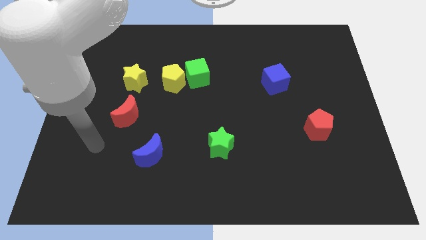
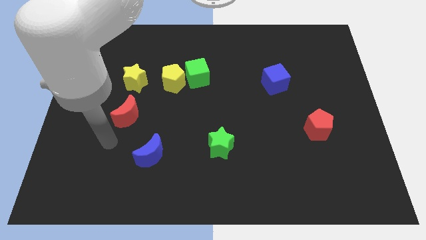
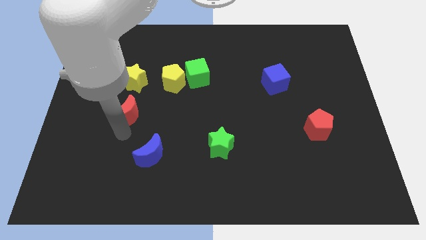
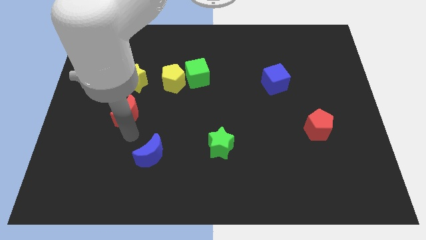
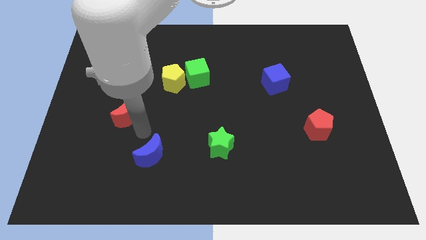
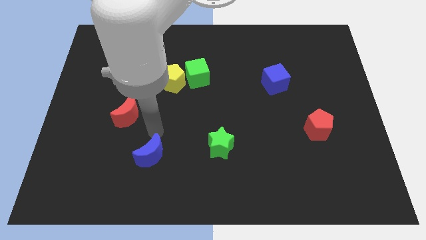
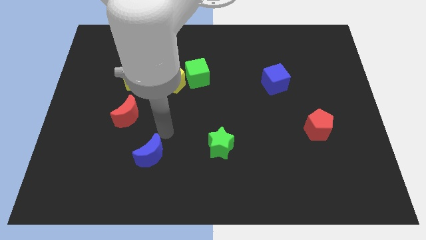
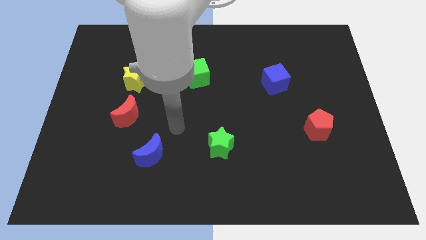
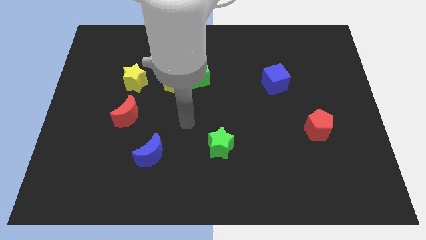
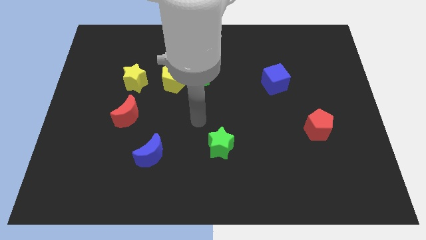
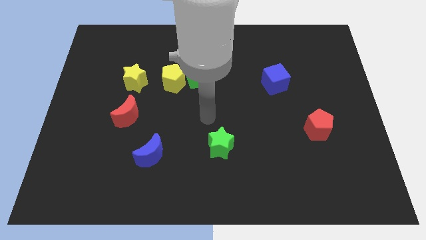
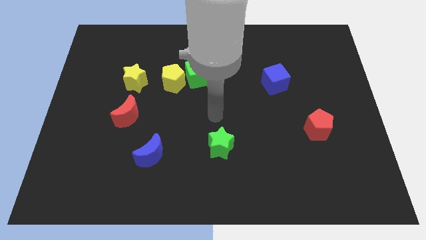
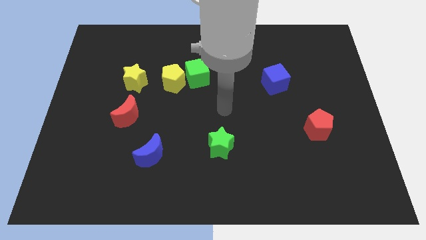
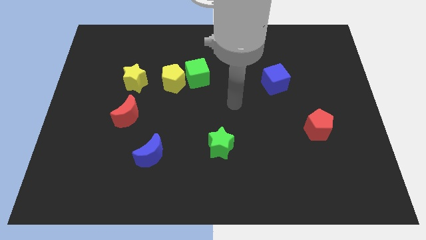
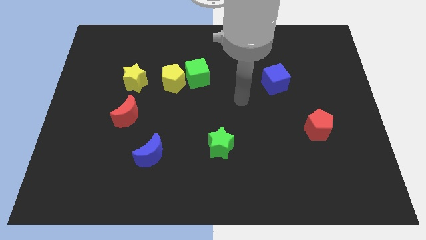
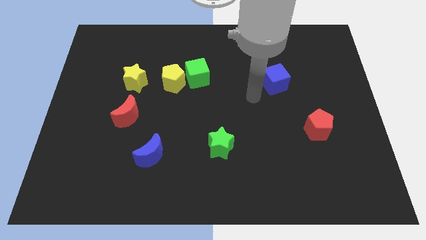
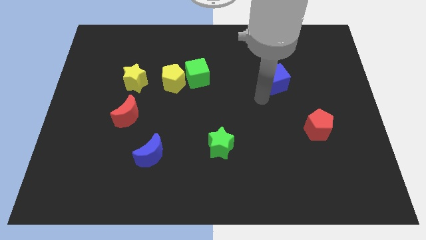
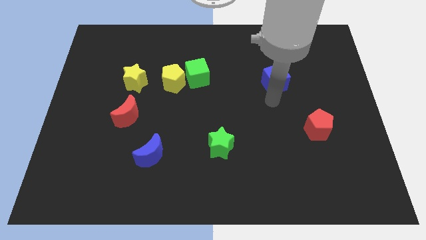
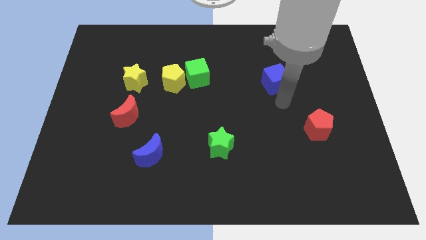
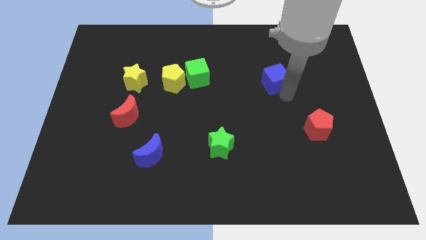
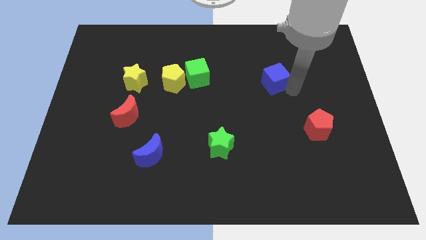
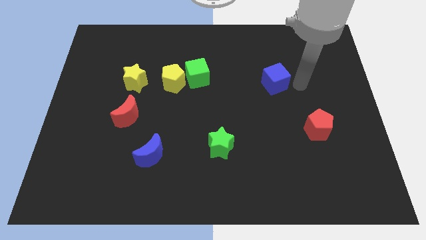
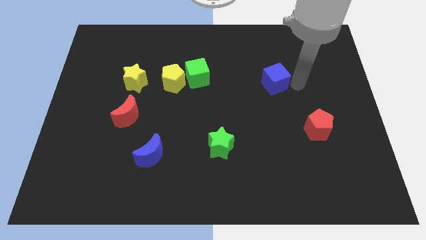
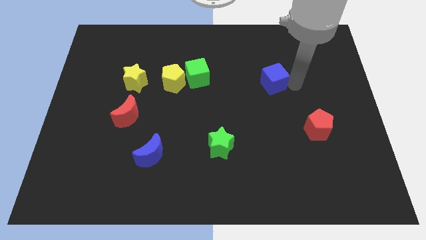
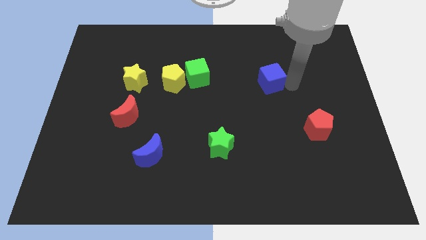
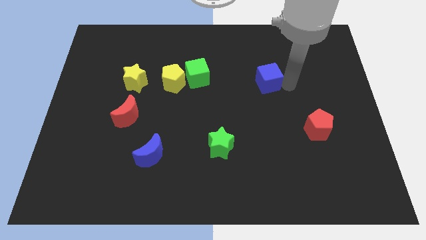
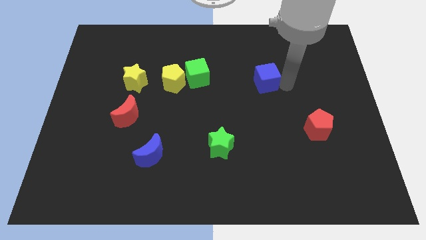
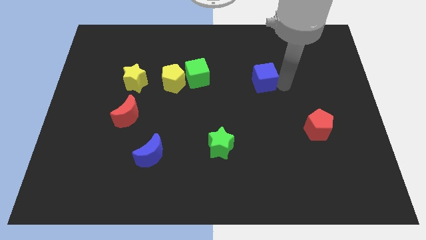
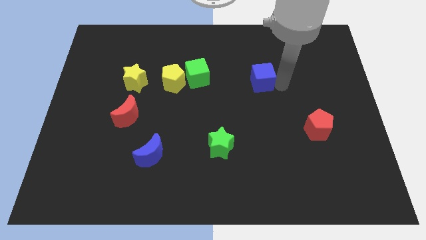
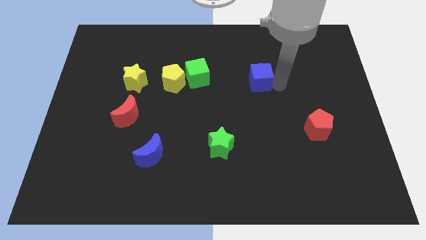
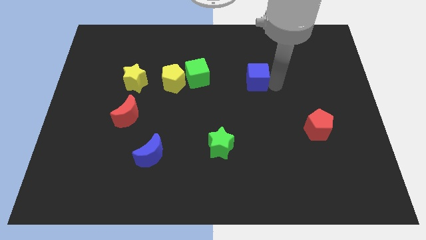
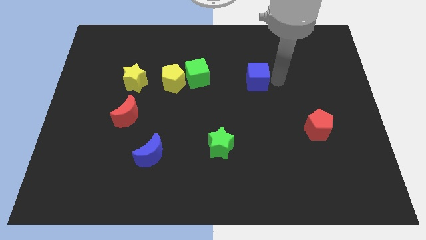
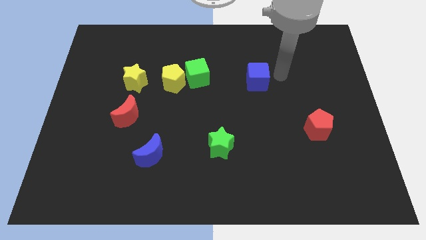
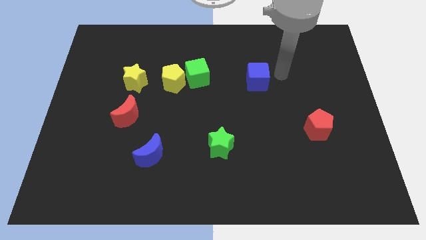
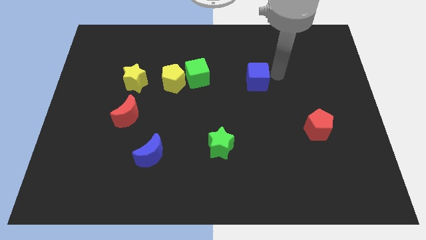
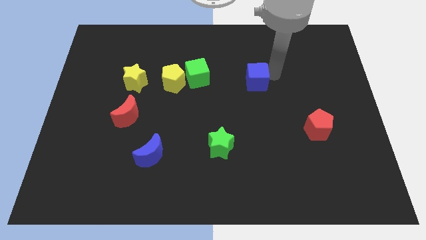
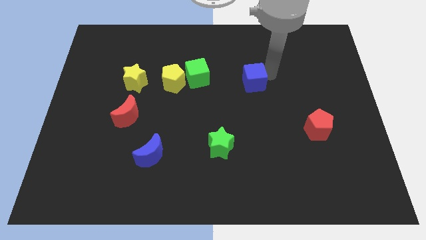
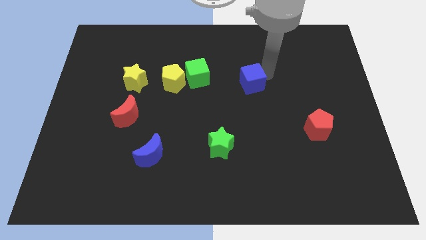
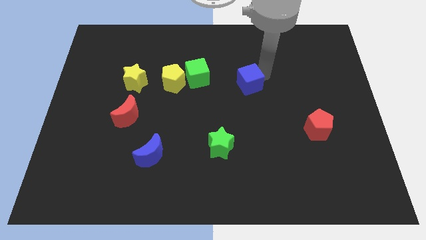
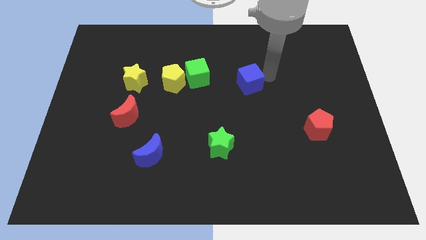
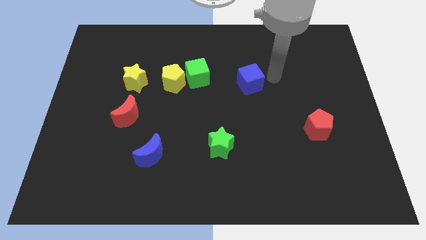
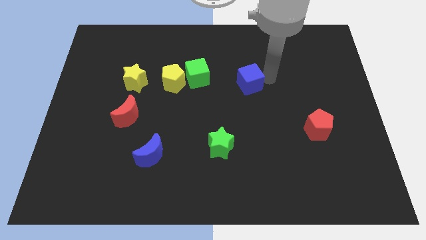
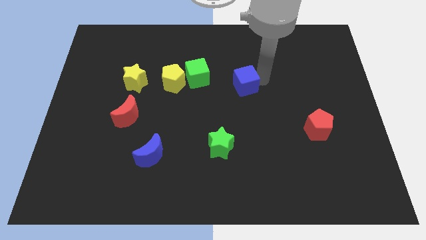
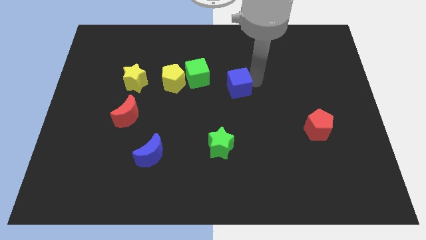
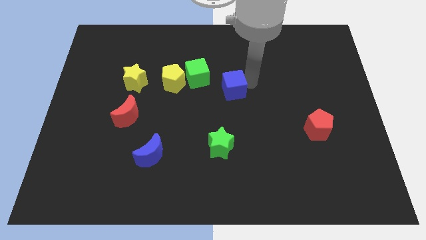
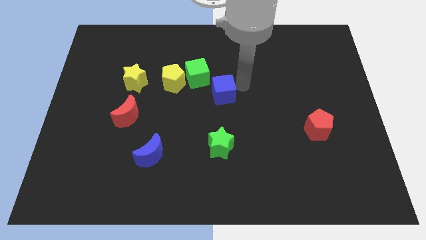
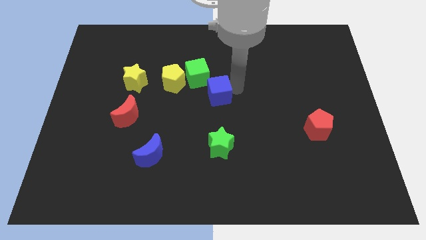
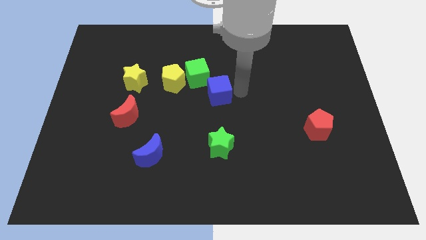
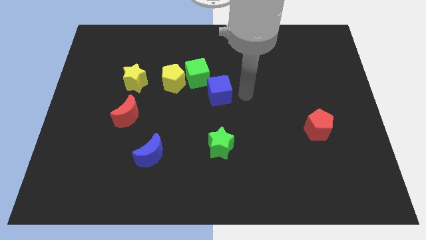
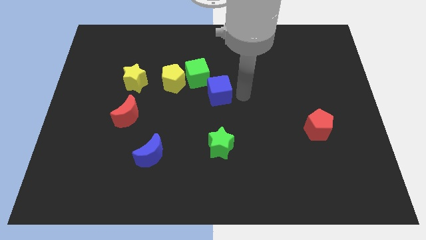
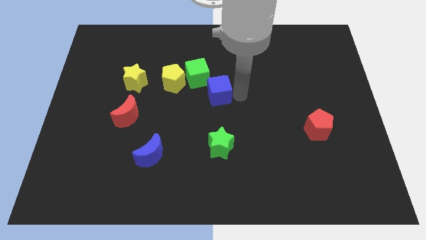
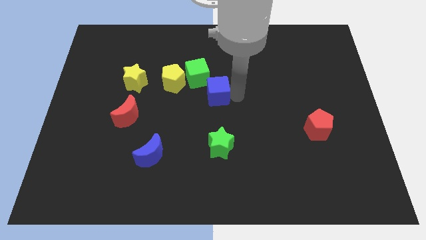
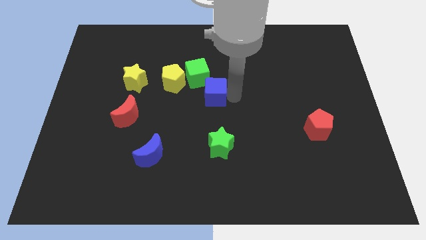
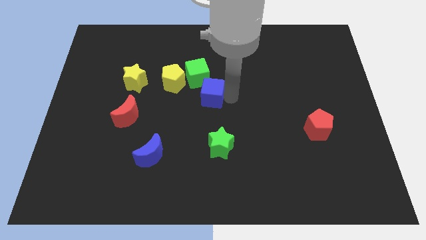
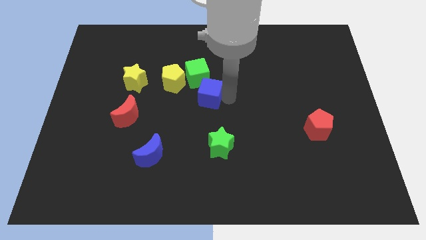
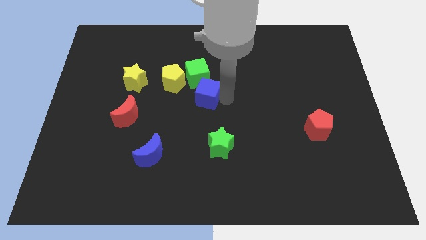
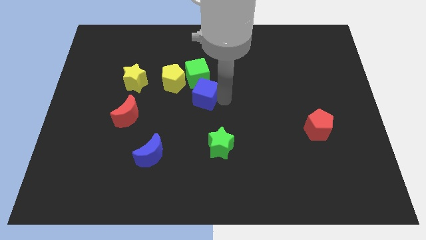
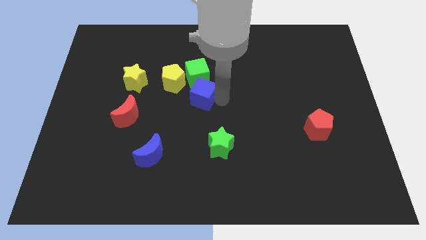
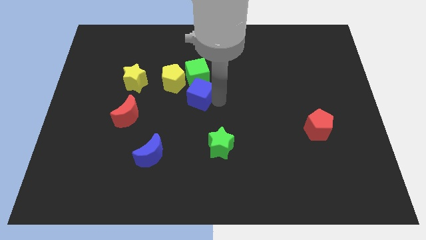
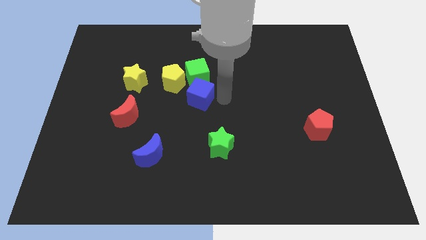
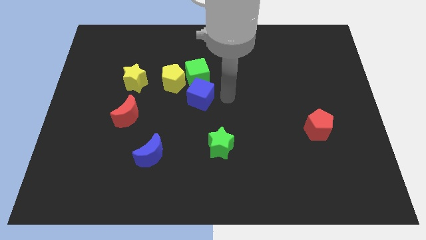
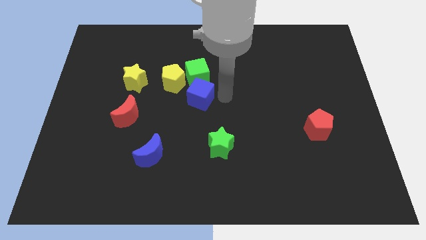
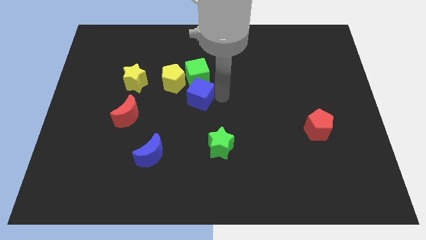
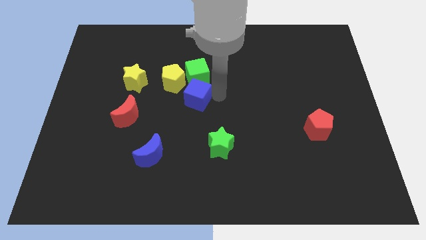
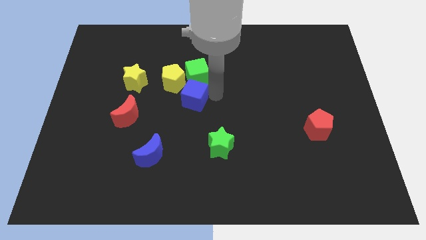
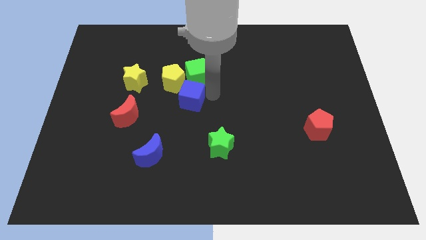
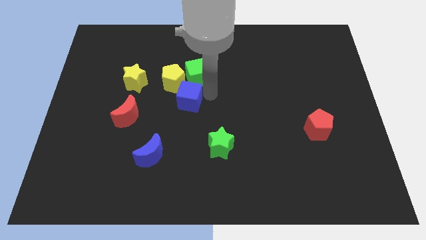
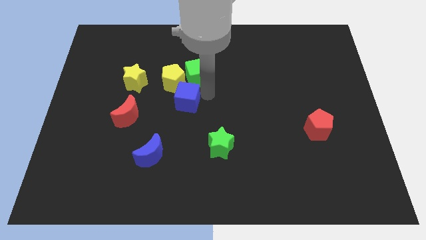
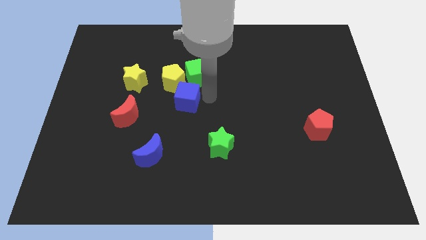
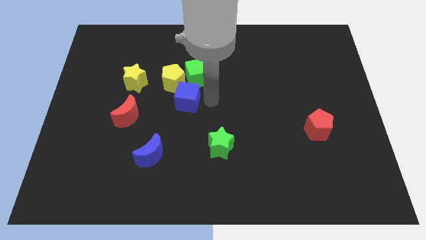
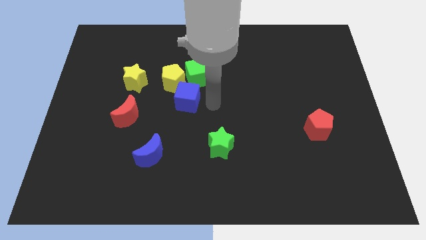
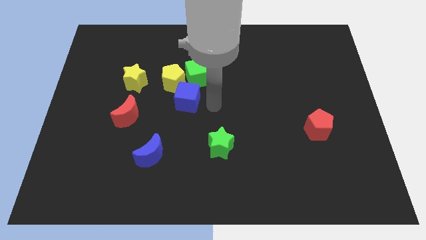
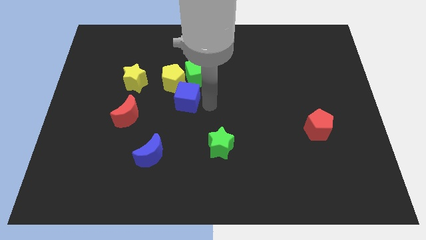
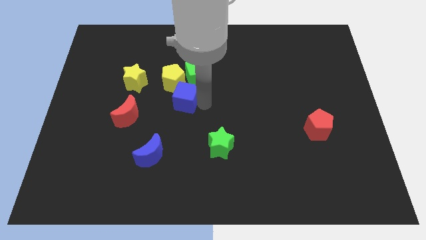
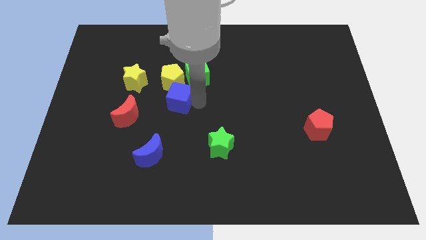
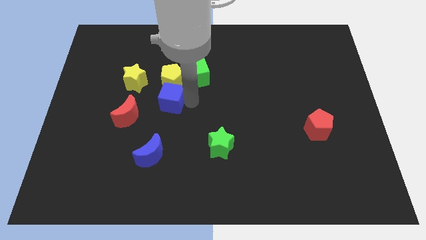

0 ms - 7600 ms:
slide the blue cube to the bottom right side of the yellow star
